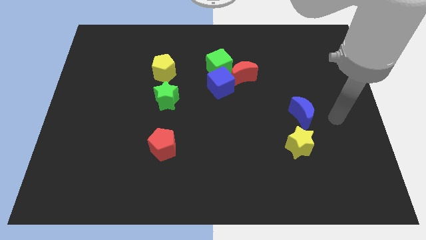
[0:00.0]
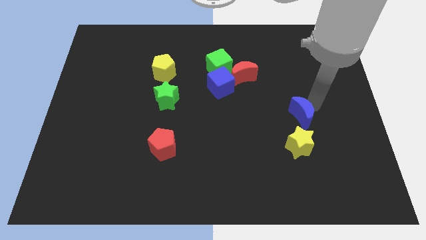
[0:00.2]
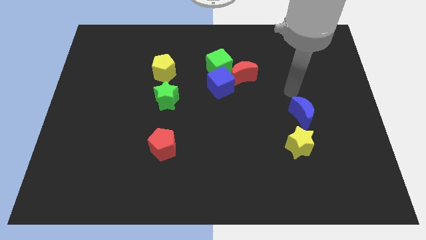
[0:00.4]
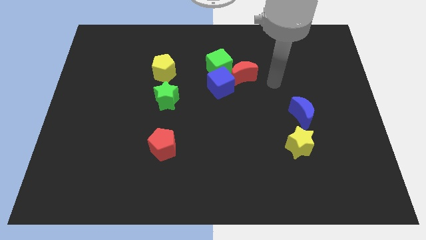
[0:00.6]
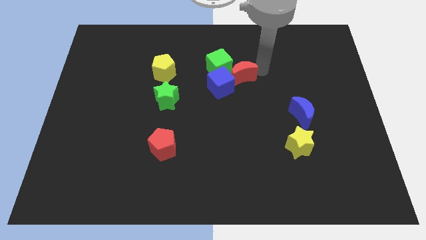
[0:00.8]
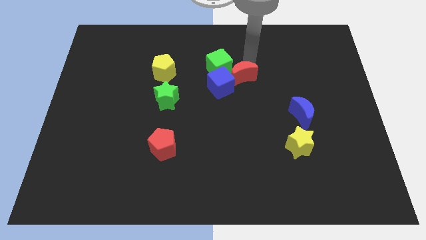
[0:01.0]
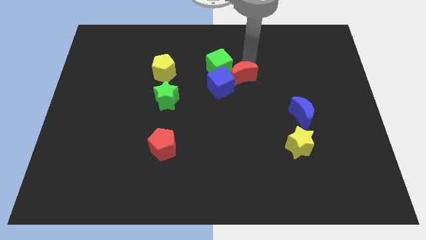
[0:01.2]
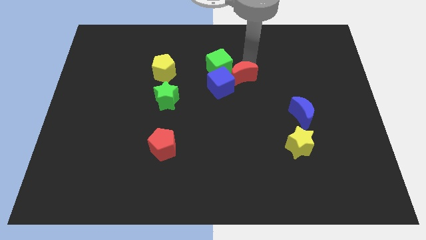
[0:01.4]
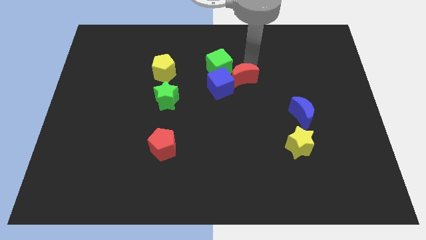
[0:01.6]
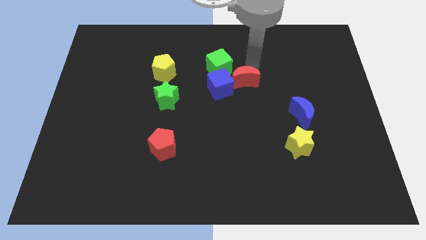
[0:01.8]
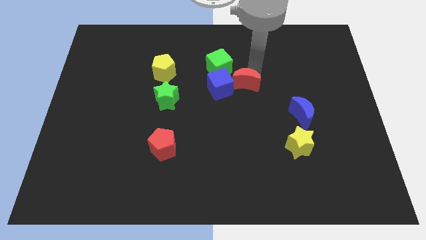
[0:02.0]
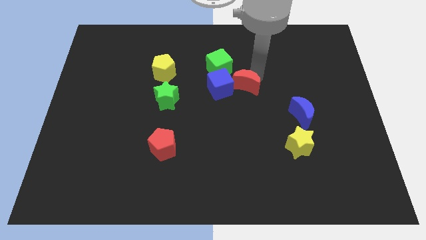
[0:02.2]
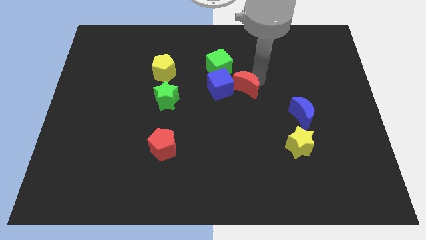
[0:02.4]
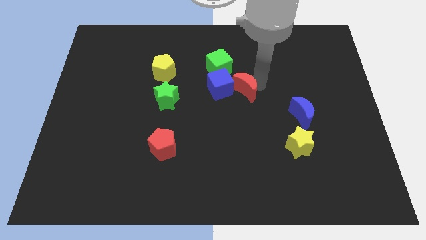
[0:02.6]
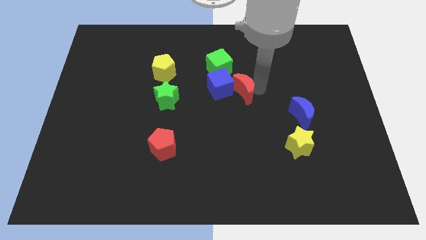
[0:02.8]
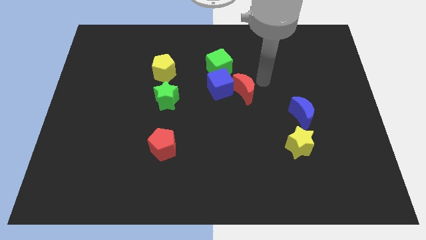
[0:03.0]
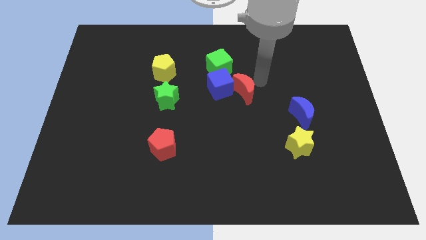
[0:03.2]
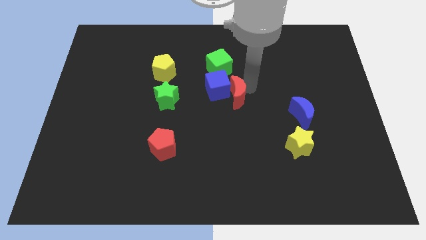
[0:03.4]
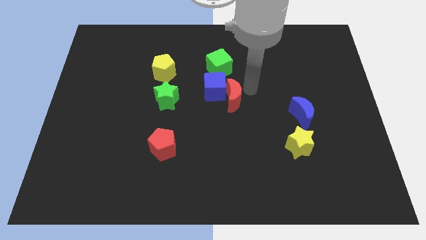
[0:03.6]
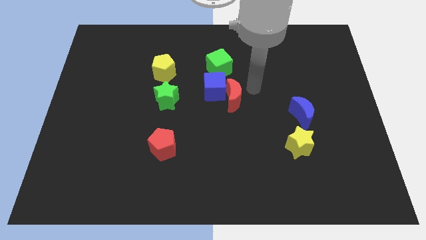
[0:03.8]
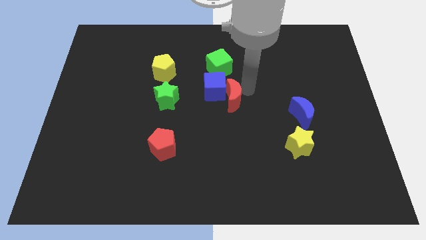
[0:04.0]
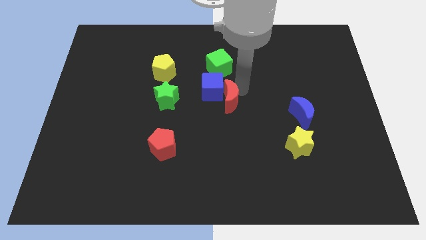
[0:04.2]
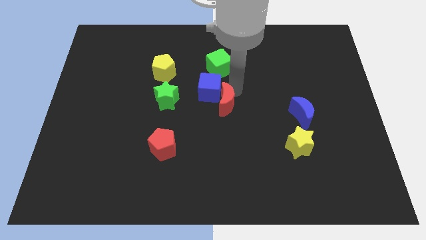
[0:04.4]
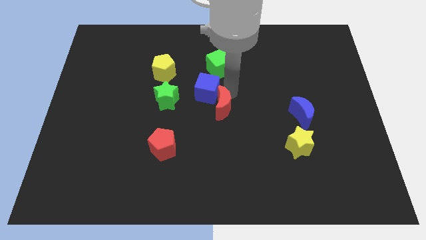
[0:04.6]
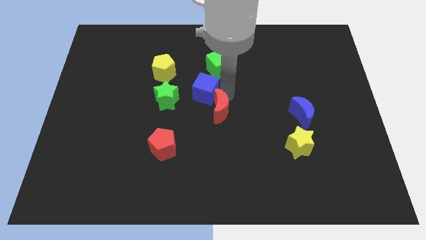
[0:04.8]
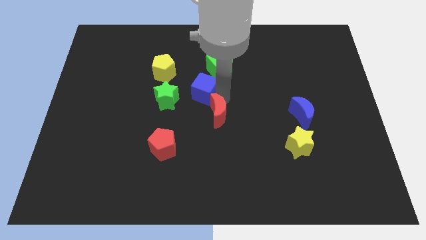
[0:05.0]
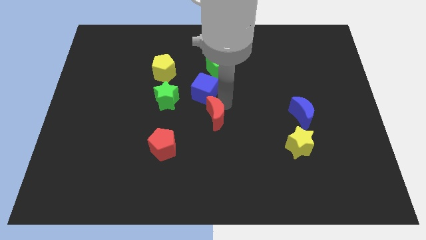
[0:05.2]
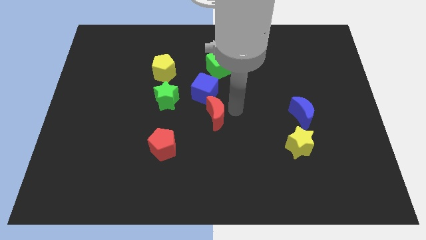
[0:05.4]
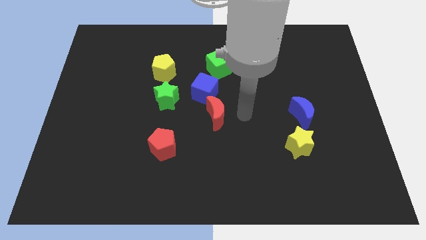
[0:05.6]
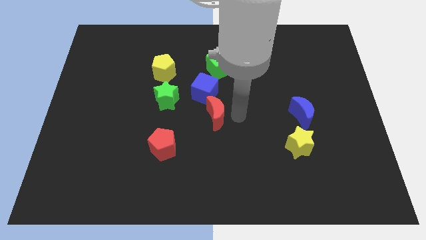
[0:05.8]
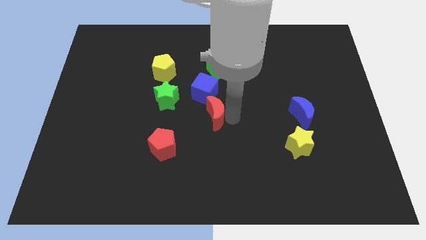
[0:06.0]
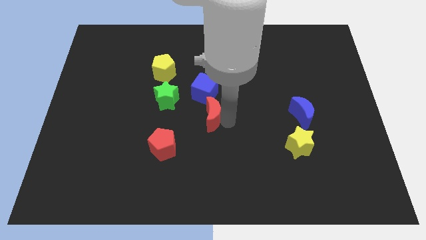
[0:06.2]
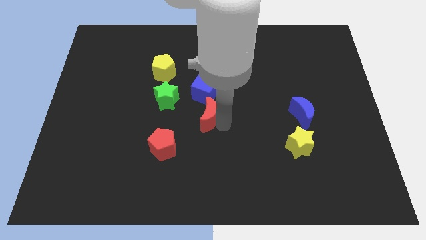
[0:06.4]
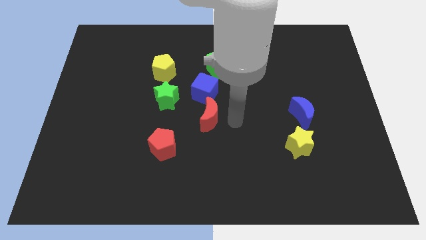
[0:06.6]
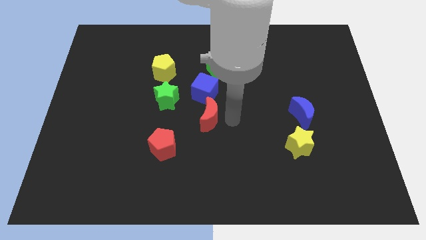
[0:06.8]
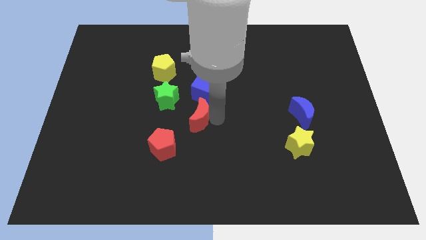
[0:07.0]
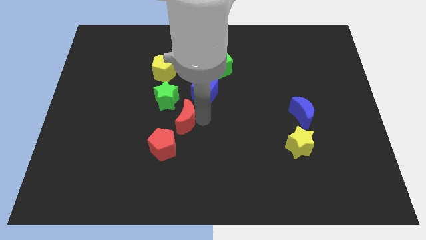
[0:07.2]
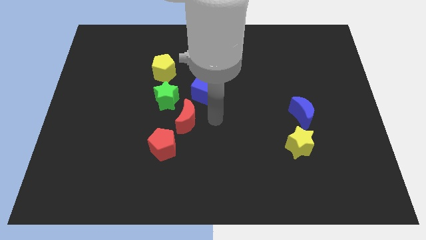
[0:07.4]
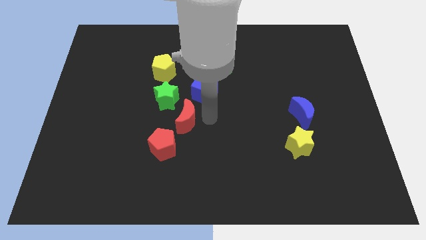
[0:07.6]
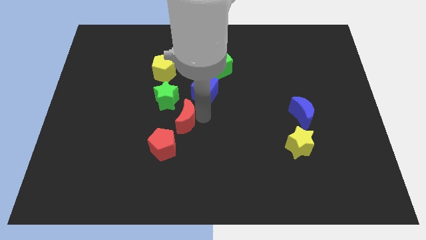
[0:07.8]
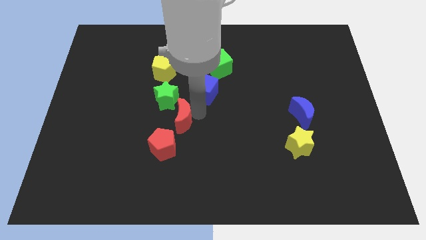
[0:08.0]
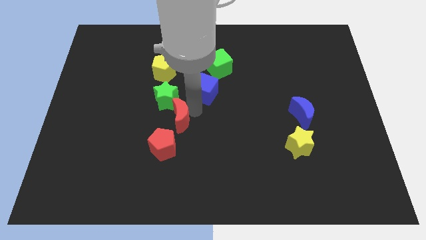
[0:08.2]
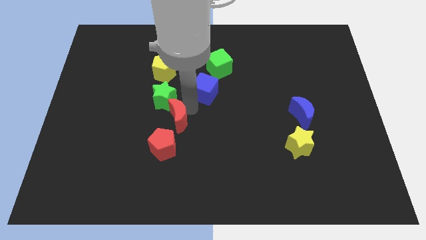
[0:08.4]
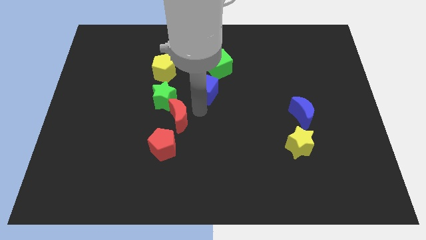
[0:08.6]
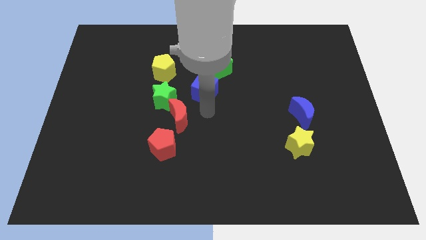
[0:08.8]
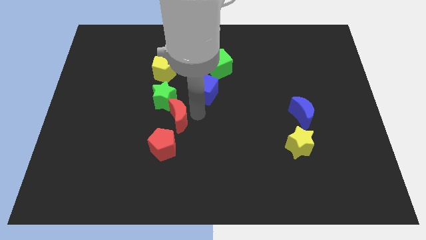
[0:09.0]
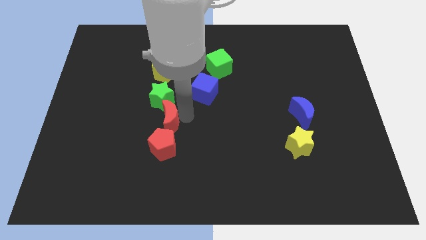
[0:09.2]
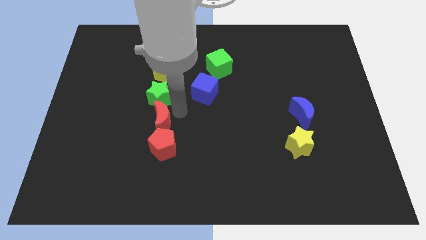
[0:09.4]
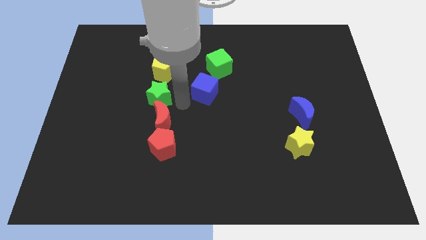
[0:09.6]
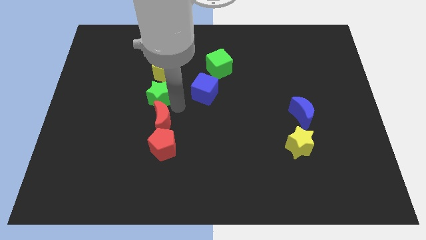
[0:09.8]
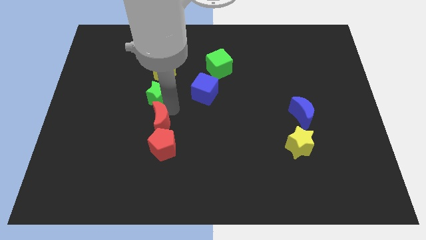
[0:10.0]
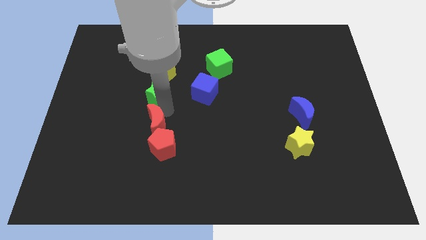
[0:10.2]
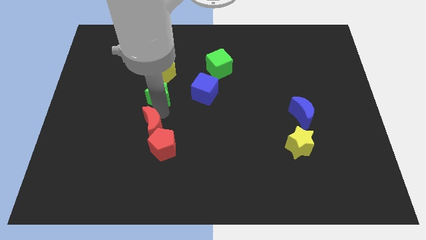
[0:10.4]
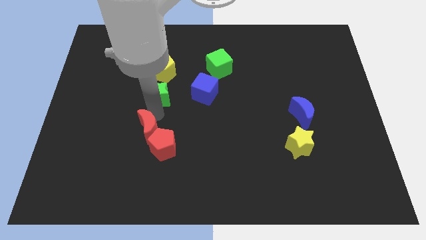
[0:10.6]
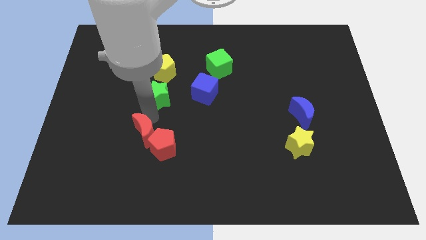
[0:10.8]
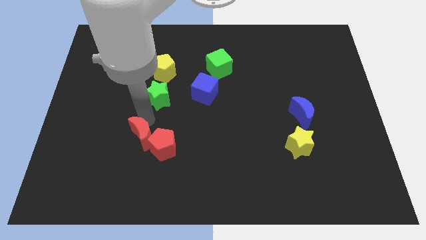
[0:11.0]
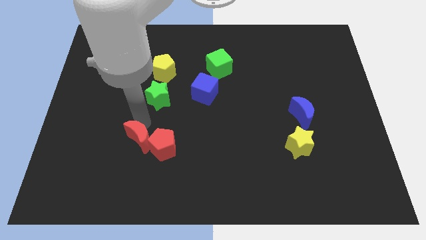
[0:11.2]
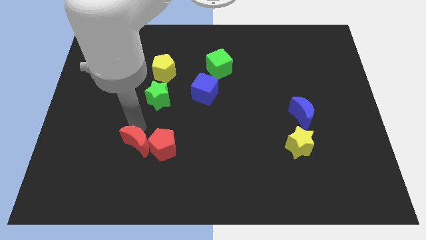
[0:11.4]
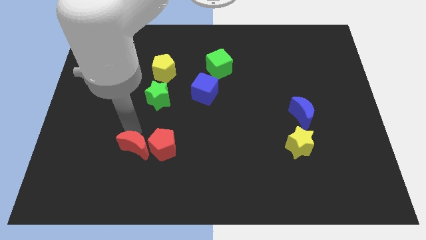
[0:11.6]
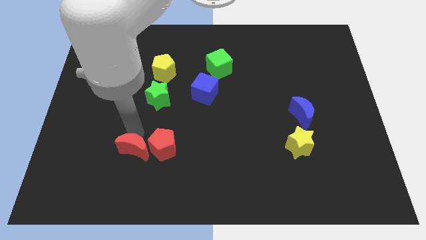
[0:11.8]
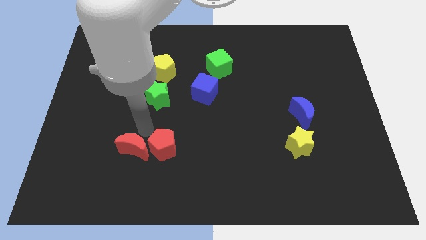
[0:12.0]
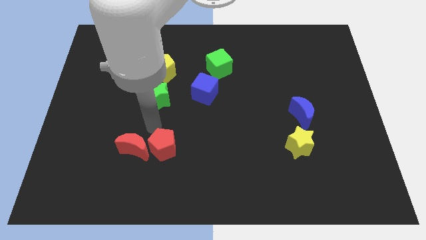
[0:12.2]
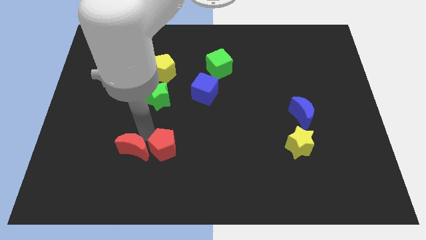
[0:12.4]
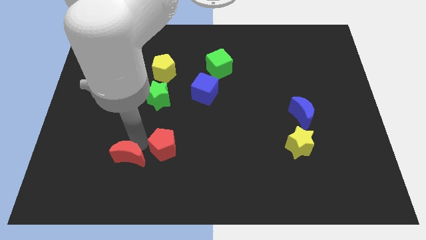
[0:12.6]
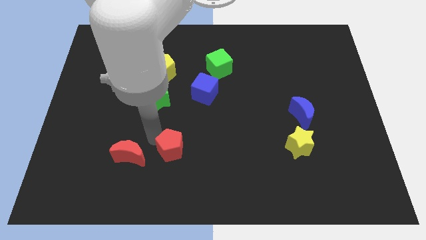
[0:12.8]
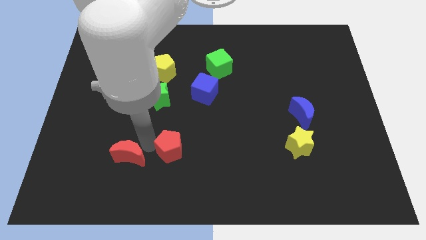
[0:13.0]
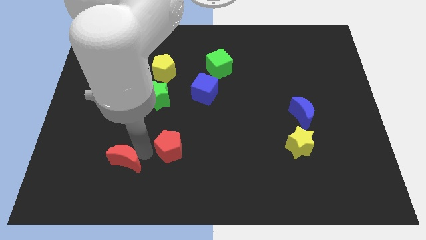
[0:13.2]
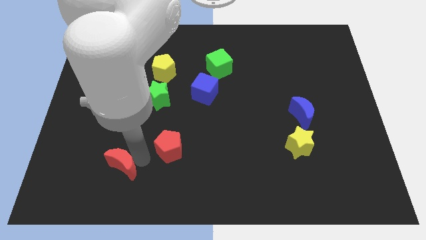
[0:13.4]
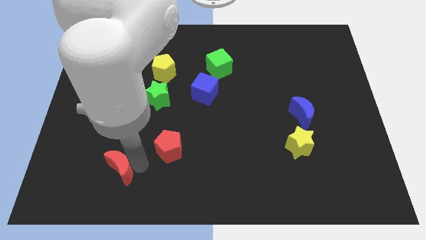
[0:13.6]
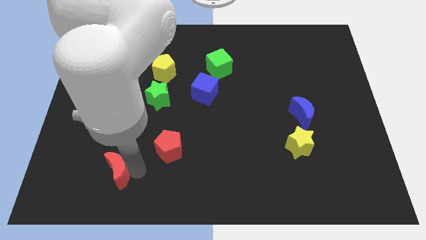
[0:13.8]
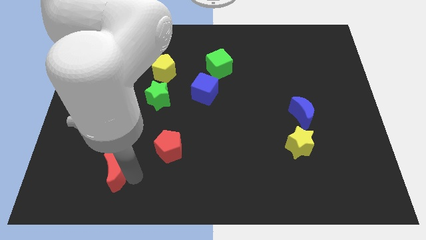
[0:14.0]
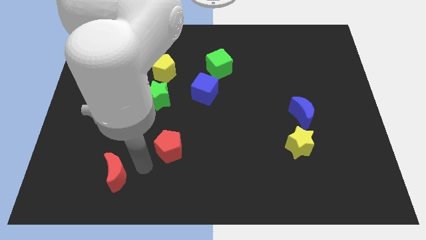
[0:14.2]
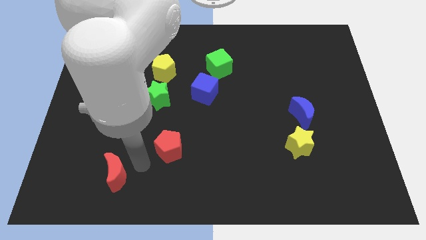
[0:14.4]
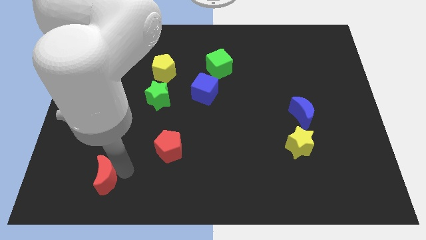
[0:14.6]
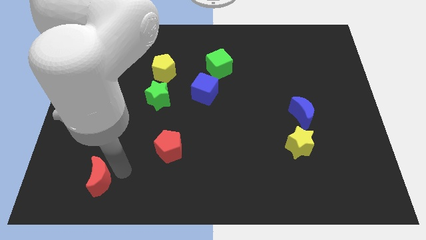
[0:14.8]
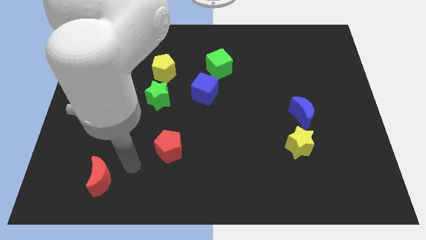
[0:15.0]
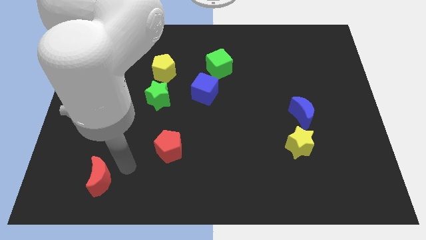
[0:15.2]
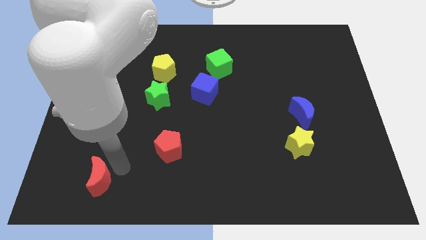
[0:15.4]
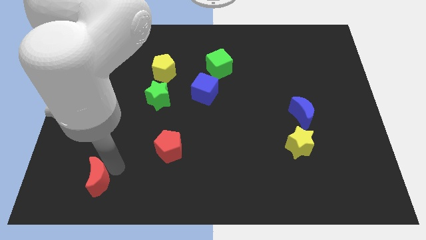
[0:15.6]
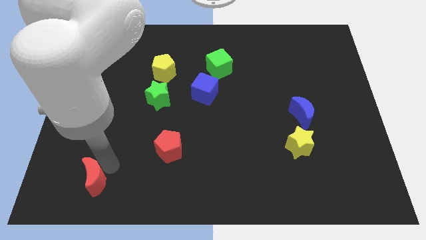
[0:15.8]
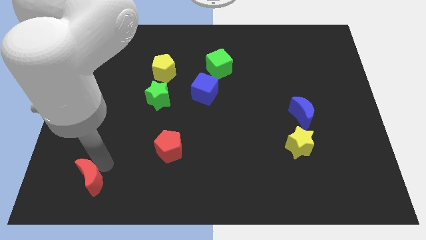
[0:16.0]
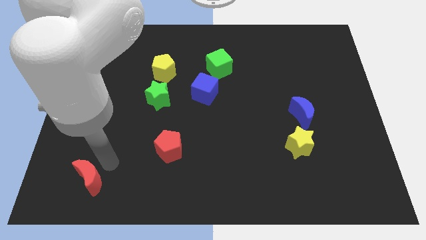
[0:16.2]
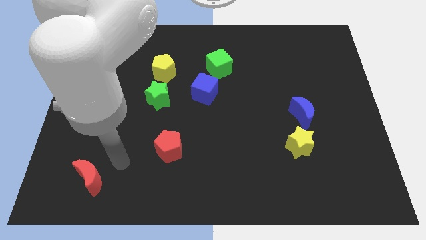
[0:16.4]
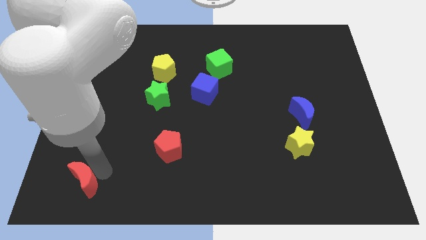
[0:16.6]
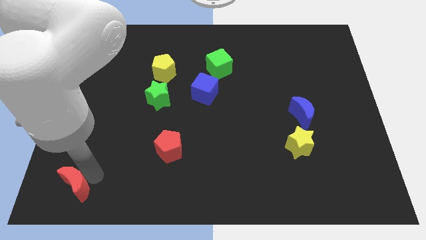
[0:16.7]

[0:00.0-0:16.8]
push the red moon to the bottom left
